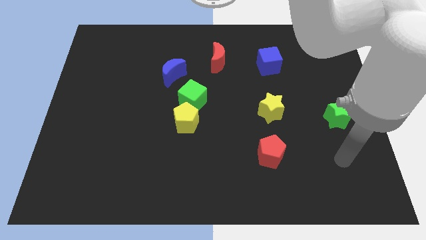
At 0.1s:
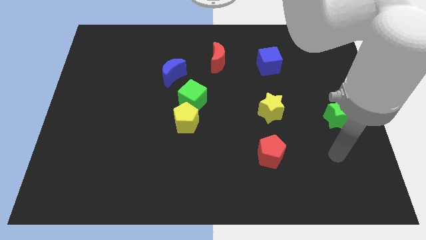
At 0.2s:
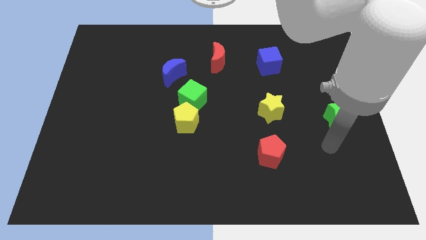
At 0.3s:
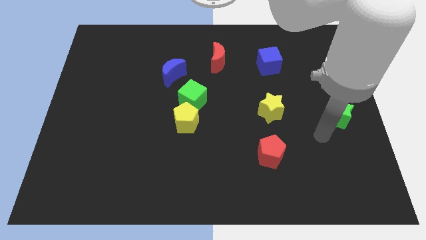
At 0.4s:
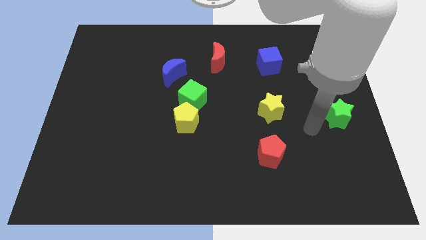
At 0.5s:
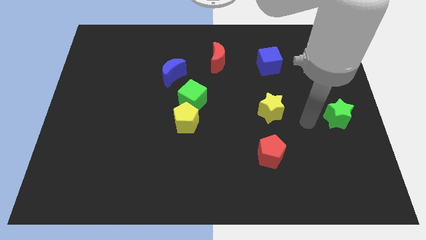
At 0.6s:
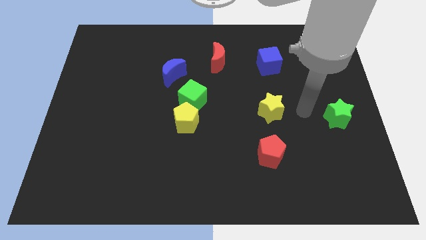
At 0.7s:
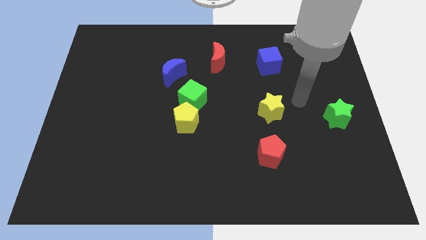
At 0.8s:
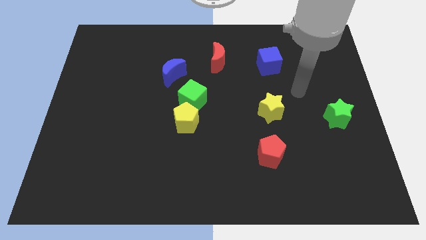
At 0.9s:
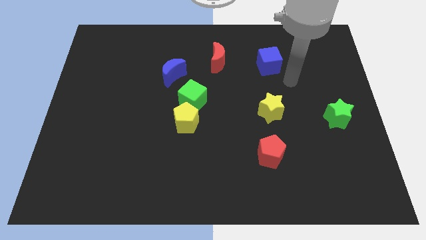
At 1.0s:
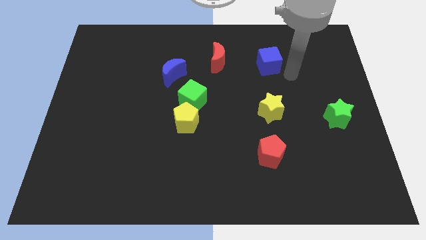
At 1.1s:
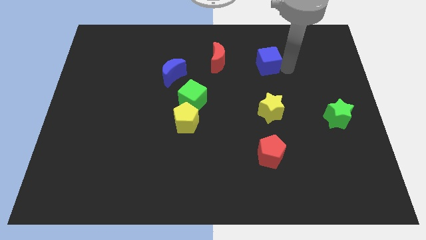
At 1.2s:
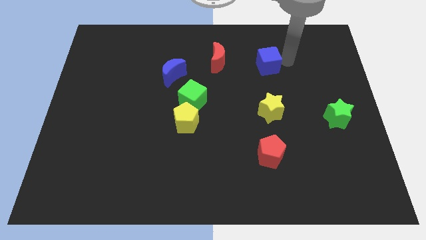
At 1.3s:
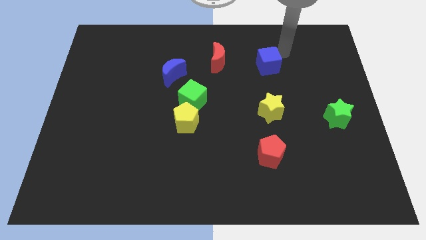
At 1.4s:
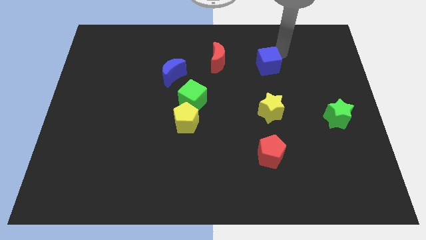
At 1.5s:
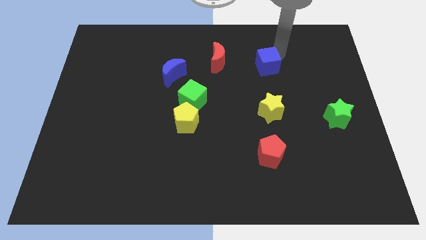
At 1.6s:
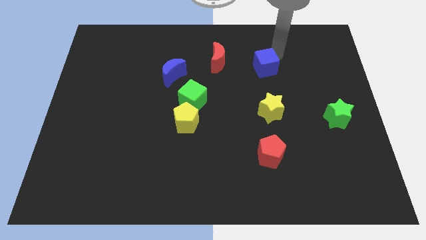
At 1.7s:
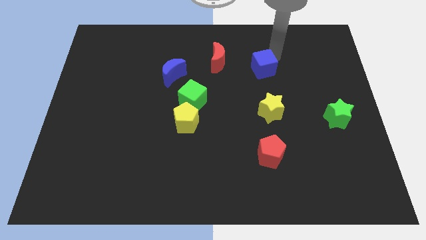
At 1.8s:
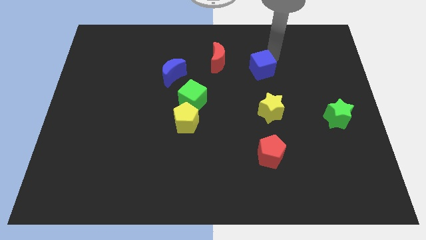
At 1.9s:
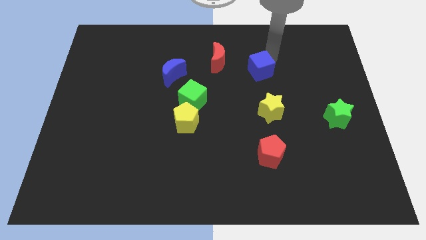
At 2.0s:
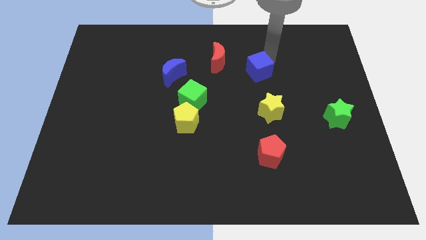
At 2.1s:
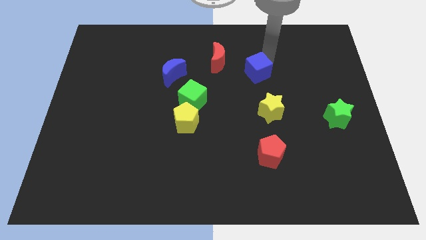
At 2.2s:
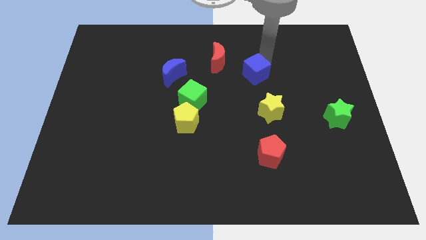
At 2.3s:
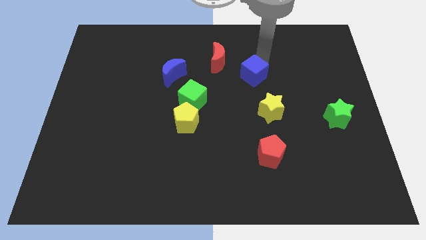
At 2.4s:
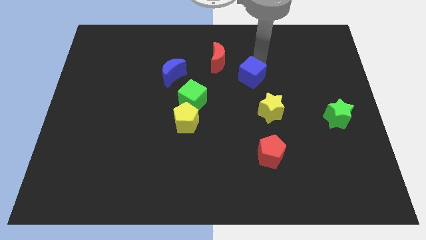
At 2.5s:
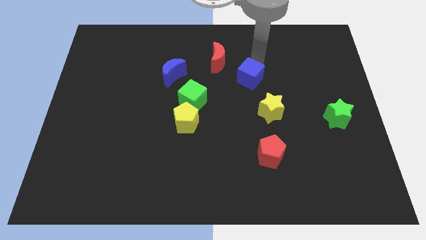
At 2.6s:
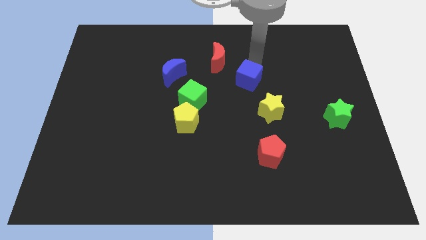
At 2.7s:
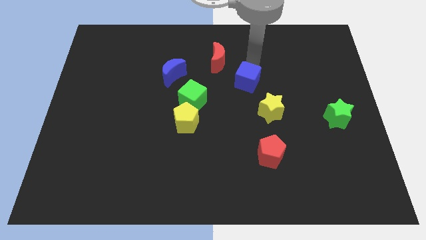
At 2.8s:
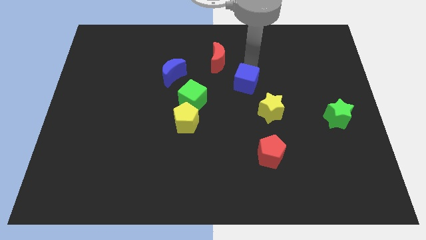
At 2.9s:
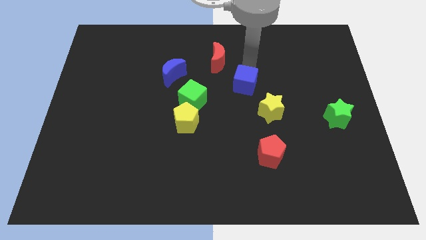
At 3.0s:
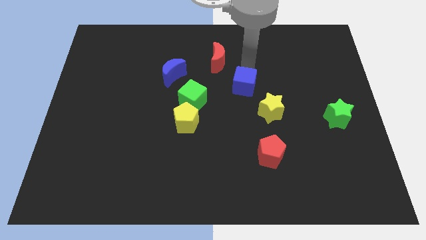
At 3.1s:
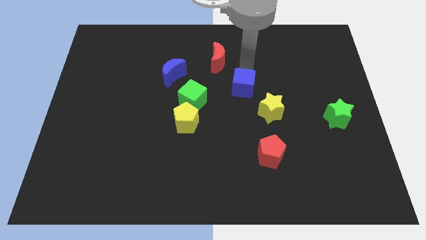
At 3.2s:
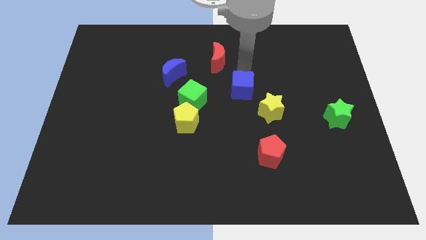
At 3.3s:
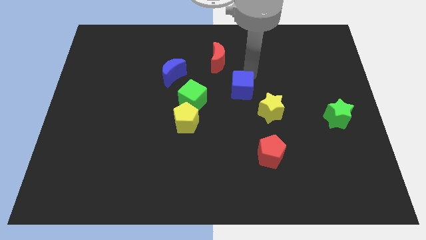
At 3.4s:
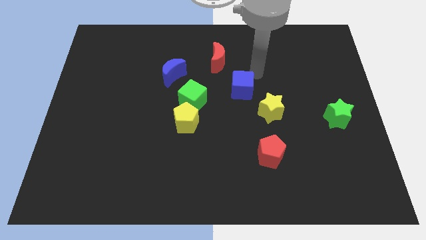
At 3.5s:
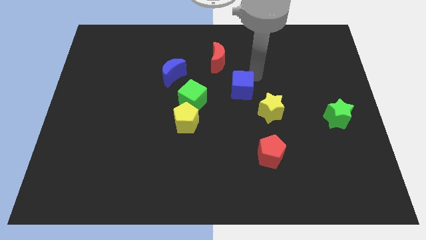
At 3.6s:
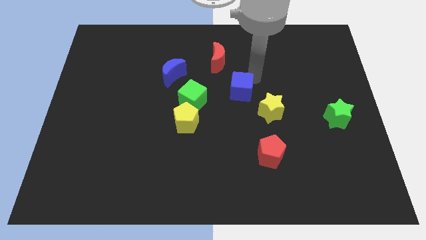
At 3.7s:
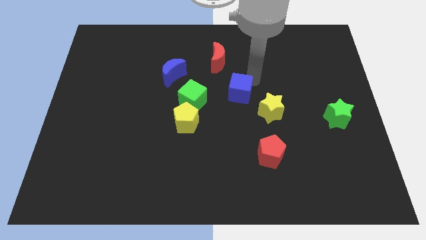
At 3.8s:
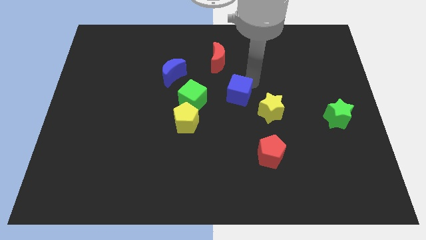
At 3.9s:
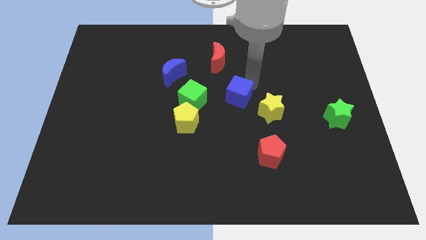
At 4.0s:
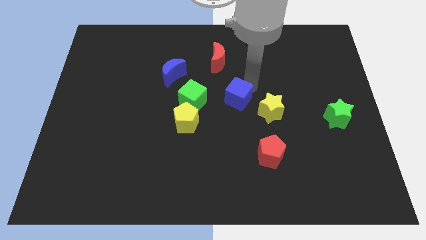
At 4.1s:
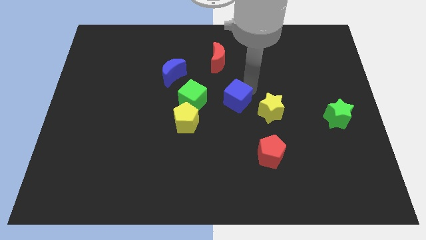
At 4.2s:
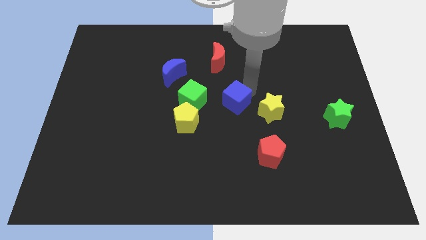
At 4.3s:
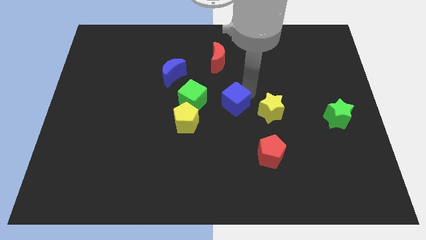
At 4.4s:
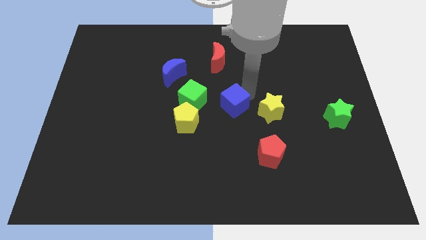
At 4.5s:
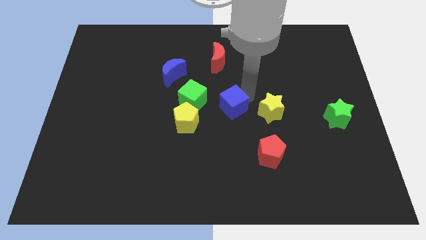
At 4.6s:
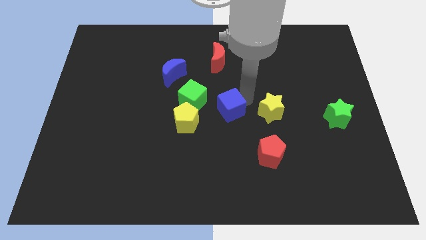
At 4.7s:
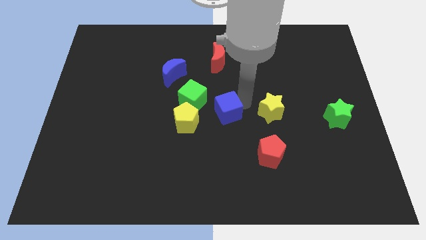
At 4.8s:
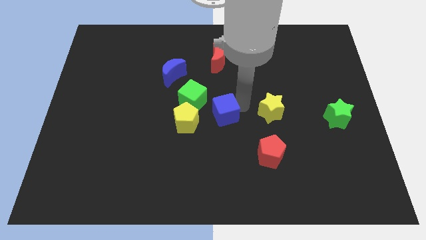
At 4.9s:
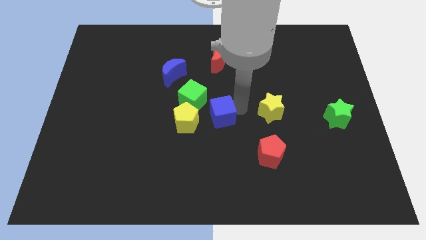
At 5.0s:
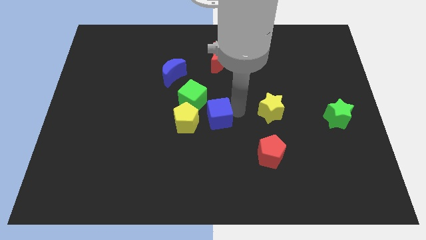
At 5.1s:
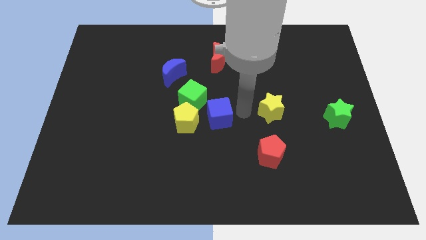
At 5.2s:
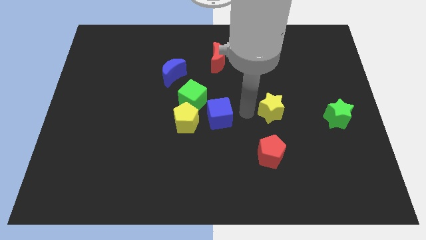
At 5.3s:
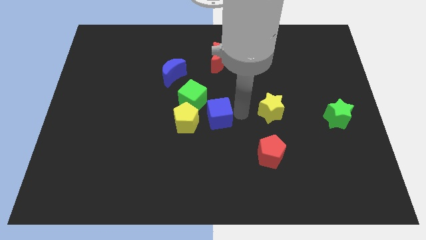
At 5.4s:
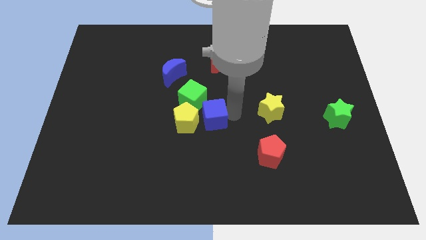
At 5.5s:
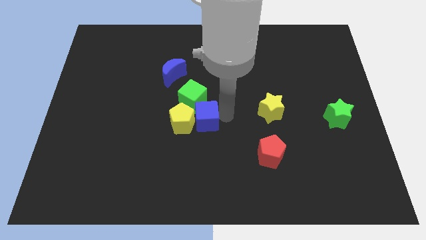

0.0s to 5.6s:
put the blue cube close to the yellow pentagon

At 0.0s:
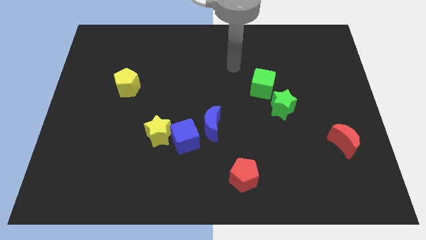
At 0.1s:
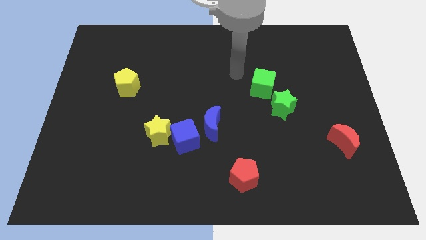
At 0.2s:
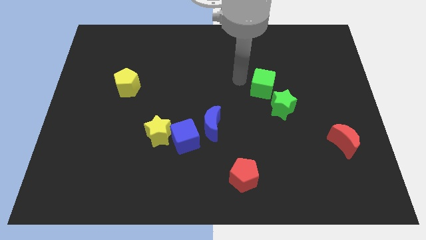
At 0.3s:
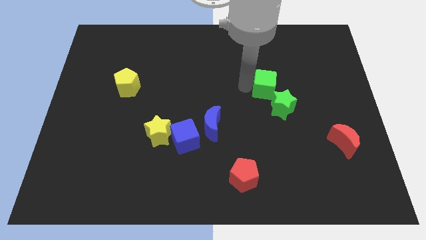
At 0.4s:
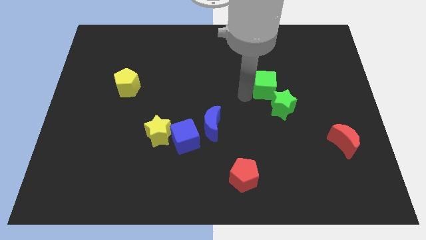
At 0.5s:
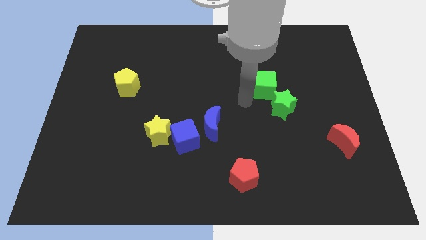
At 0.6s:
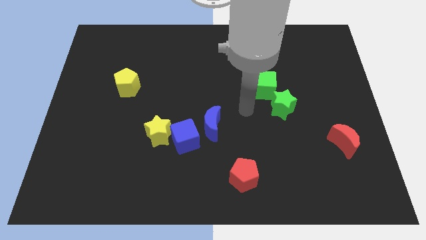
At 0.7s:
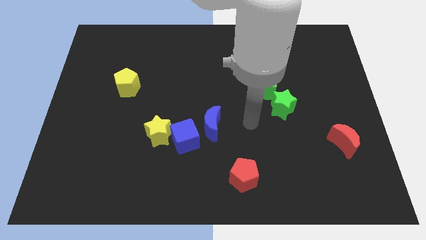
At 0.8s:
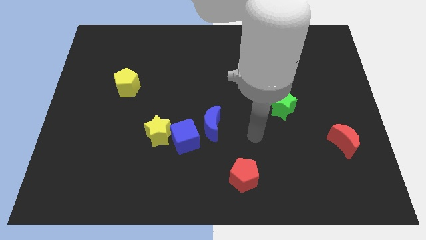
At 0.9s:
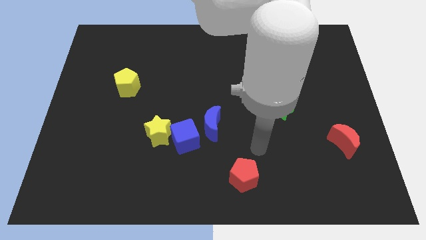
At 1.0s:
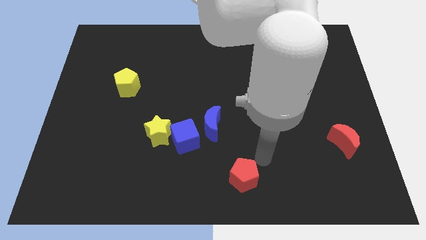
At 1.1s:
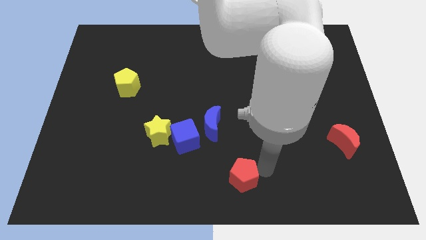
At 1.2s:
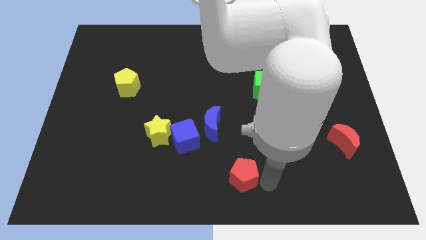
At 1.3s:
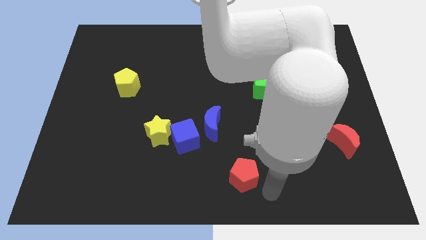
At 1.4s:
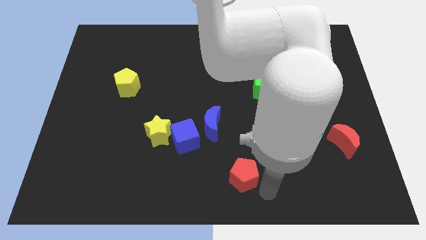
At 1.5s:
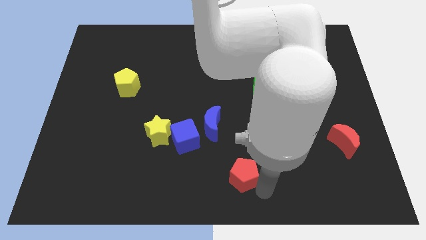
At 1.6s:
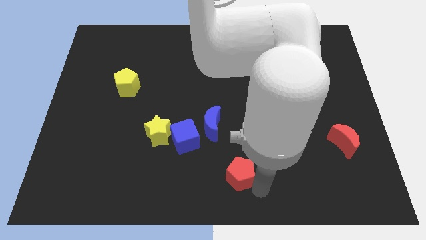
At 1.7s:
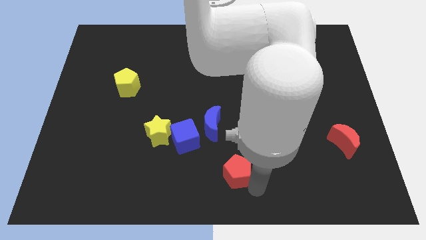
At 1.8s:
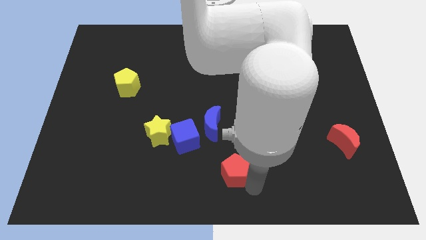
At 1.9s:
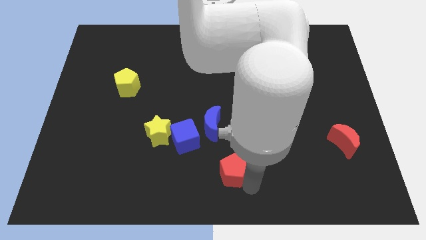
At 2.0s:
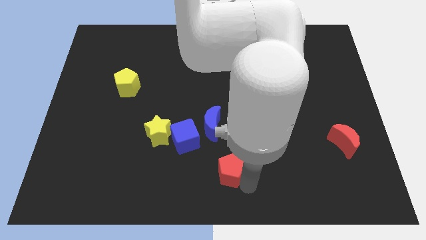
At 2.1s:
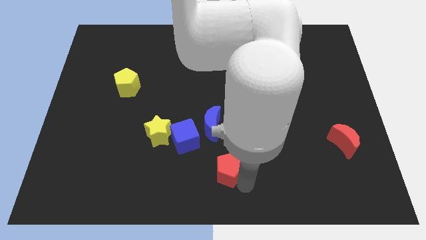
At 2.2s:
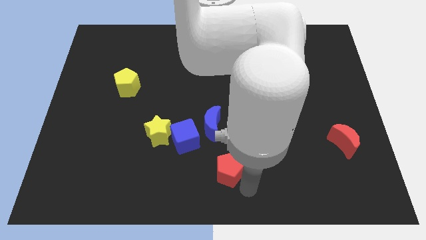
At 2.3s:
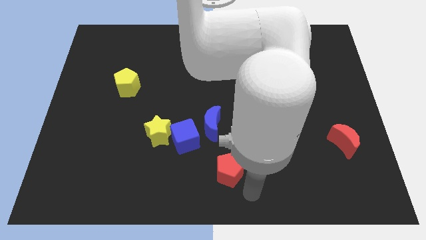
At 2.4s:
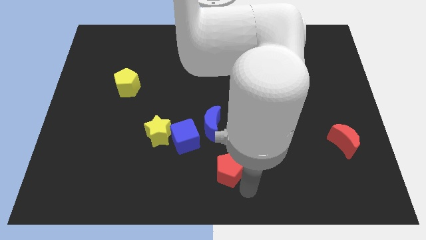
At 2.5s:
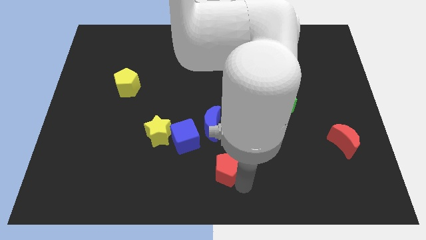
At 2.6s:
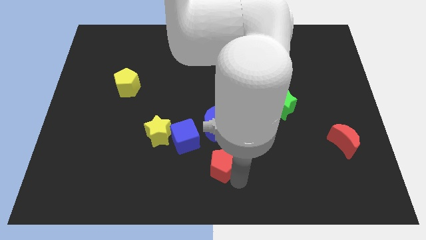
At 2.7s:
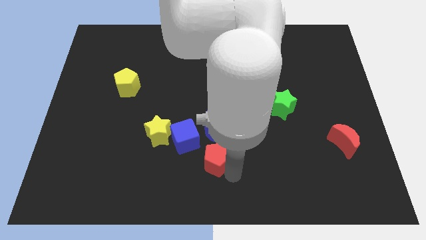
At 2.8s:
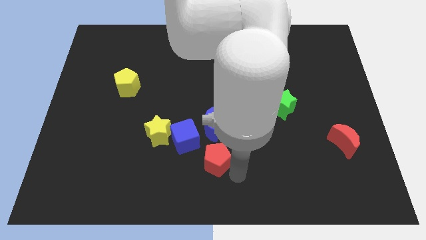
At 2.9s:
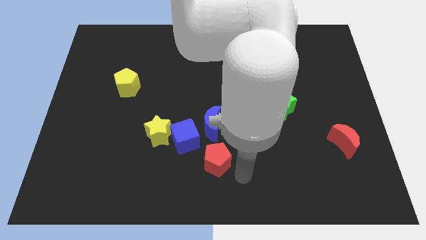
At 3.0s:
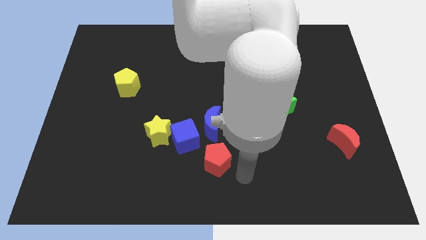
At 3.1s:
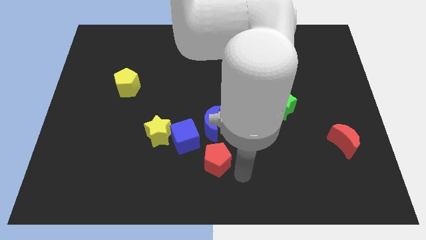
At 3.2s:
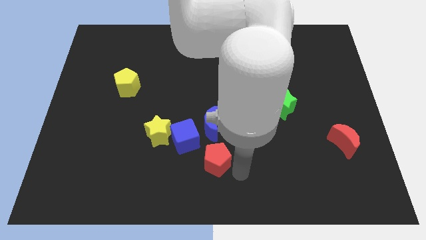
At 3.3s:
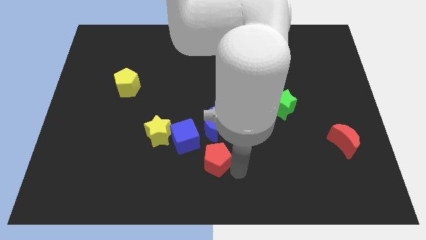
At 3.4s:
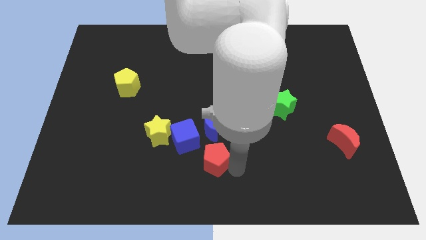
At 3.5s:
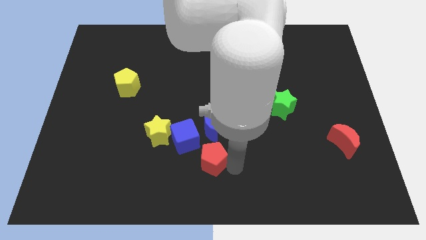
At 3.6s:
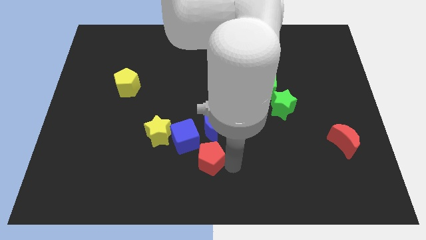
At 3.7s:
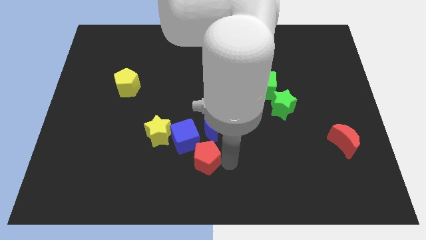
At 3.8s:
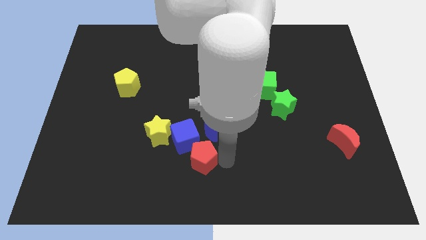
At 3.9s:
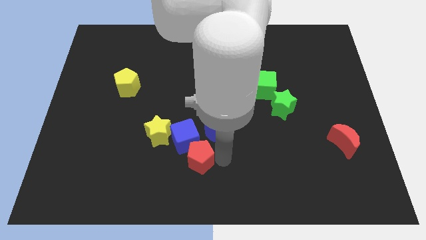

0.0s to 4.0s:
push the red pentagon to the blue cube
